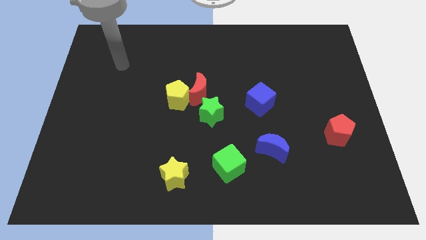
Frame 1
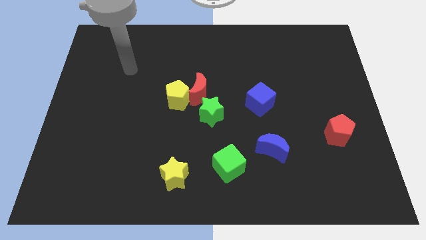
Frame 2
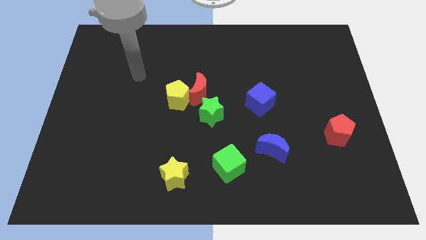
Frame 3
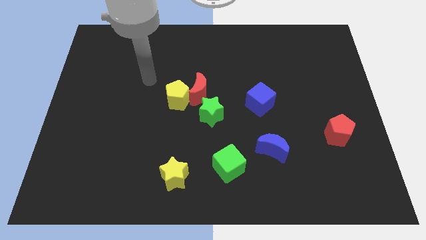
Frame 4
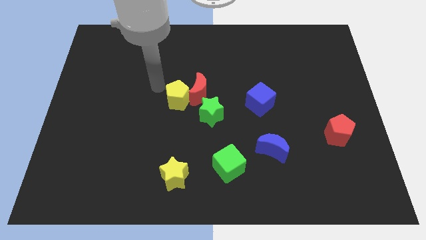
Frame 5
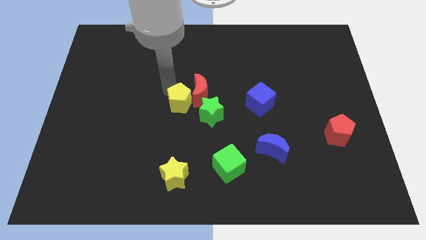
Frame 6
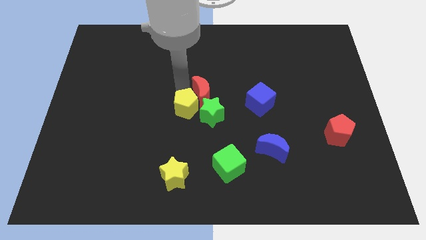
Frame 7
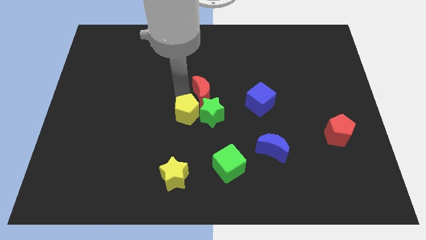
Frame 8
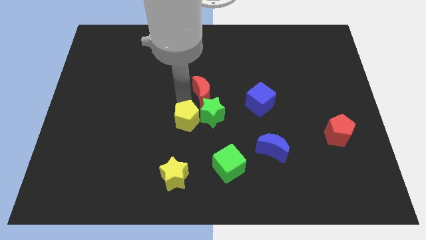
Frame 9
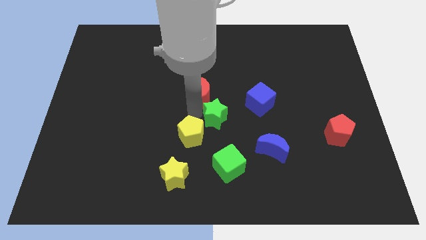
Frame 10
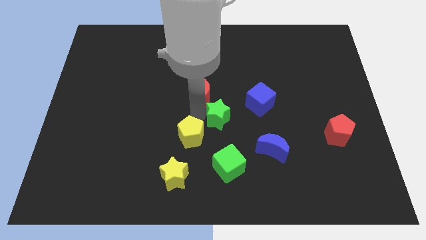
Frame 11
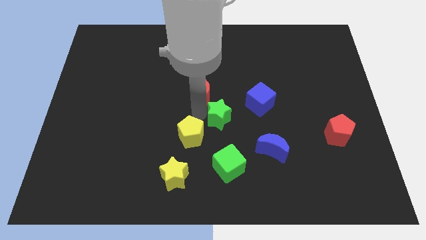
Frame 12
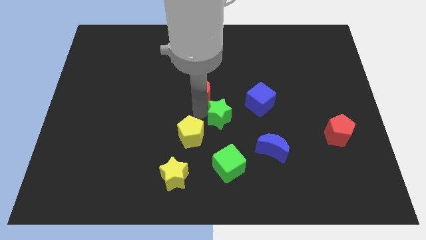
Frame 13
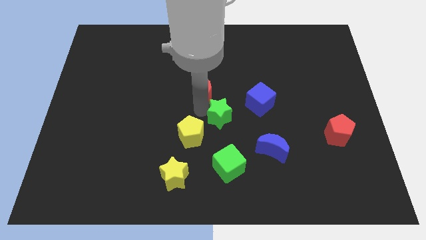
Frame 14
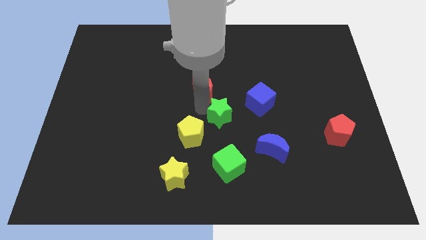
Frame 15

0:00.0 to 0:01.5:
separate the red moon from the yellow pentagon and green star

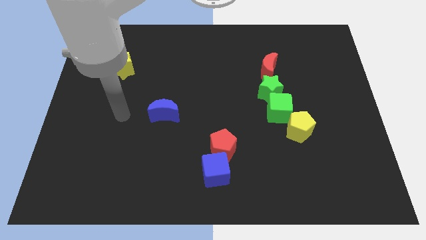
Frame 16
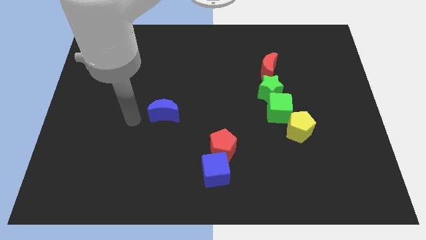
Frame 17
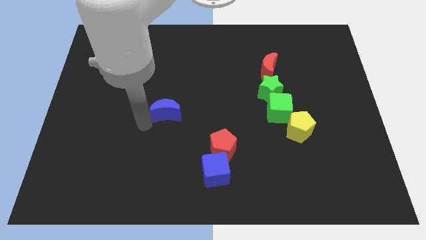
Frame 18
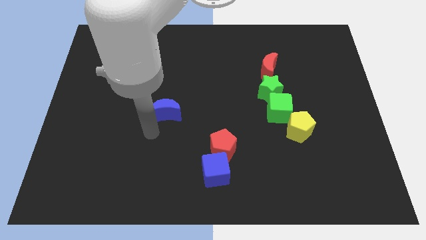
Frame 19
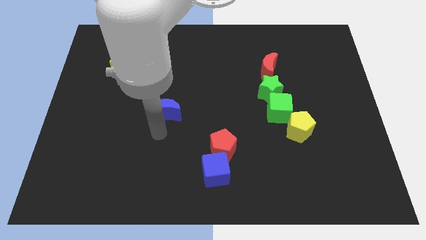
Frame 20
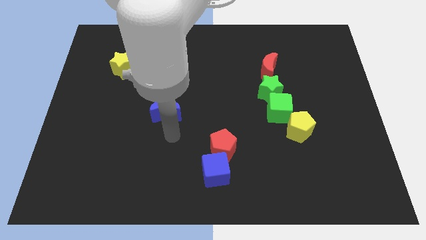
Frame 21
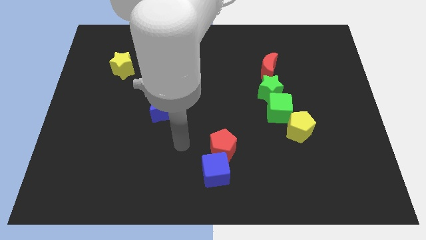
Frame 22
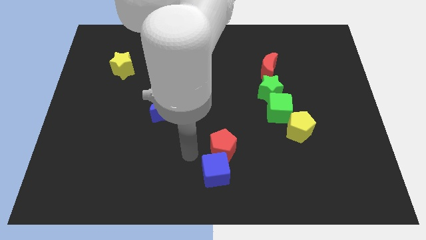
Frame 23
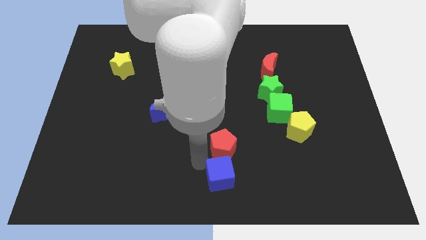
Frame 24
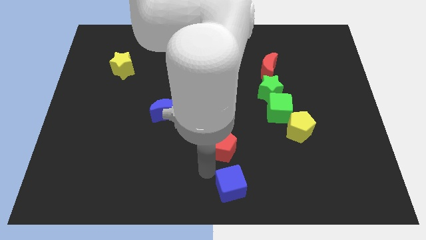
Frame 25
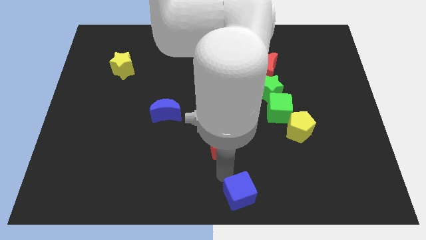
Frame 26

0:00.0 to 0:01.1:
move the red pentagon away from the blue cube

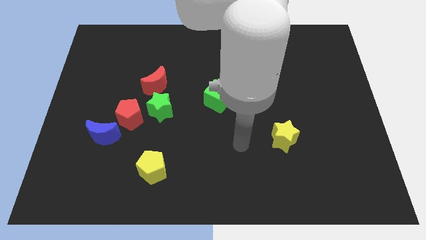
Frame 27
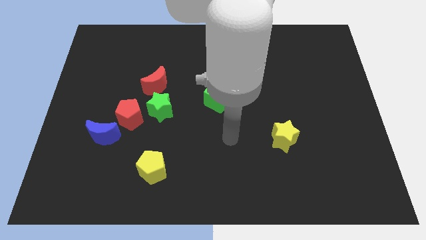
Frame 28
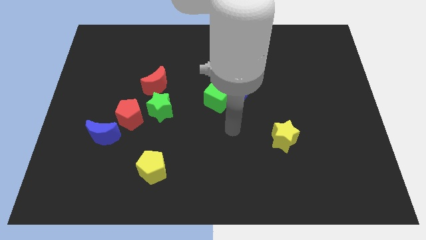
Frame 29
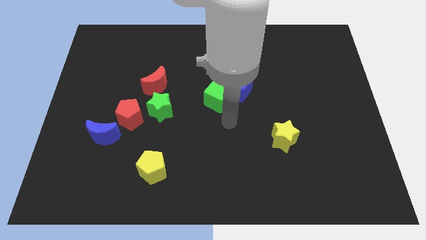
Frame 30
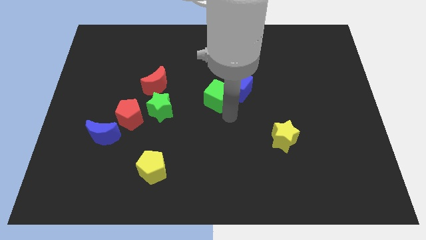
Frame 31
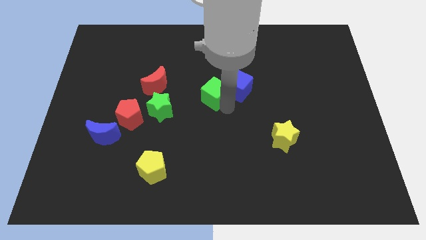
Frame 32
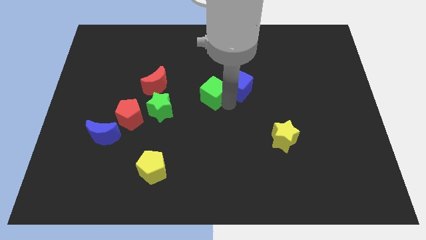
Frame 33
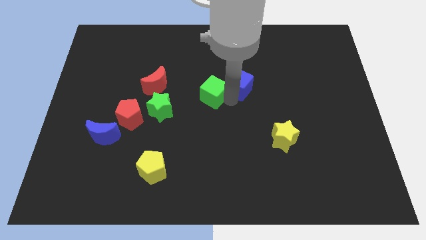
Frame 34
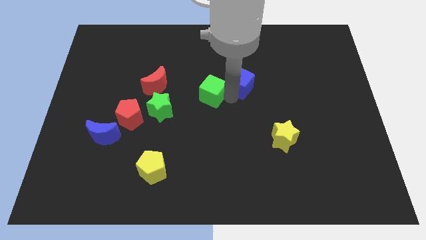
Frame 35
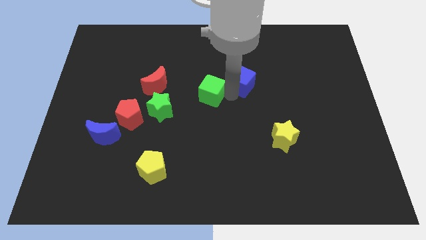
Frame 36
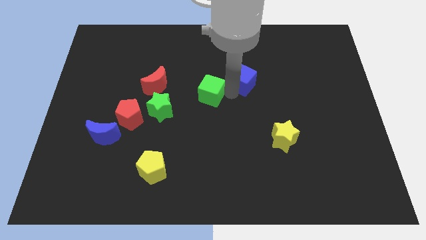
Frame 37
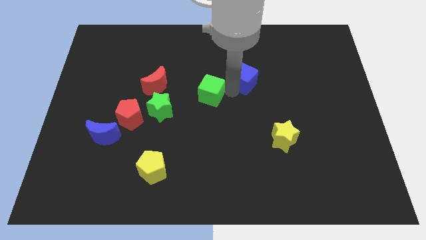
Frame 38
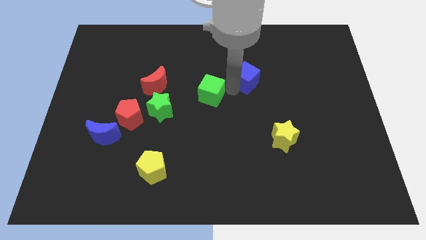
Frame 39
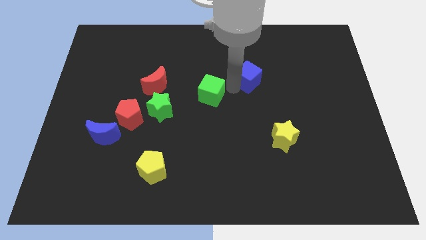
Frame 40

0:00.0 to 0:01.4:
pull the blue cube apart from the green cube

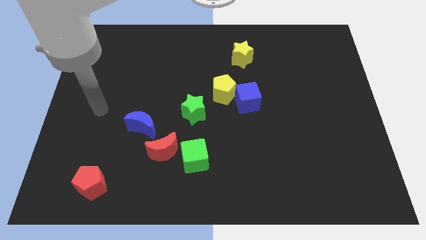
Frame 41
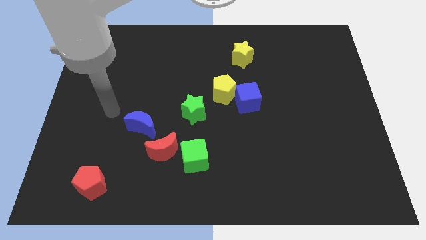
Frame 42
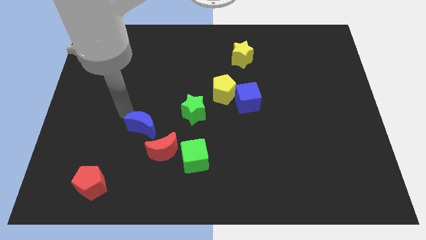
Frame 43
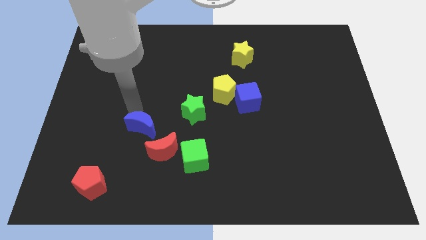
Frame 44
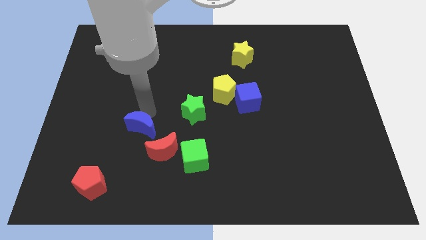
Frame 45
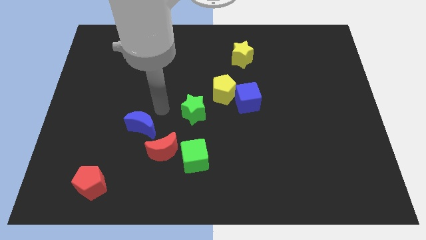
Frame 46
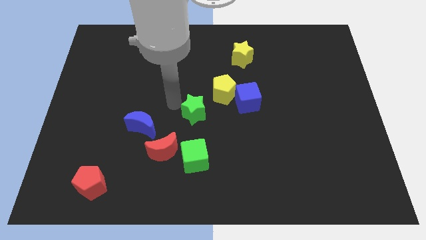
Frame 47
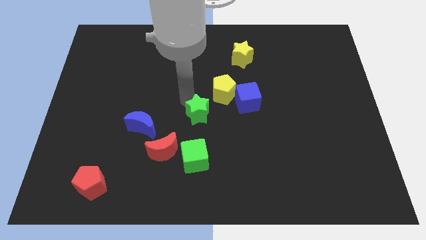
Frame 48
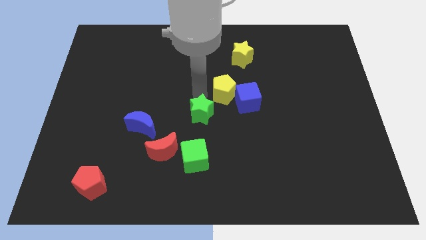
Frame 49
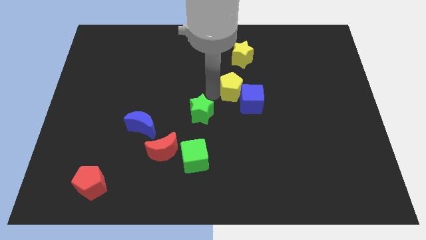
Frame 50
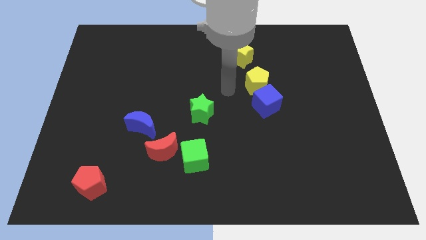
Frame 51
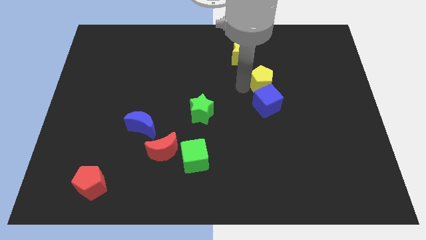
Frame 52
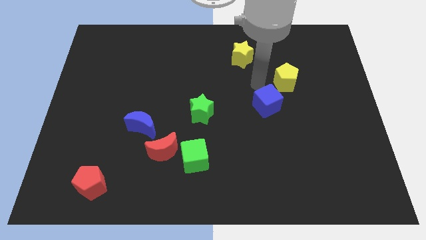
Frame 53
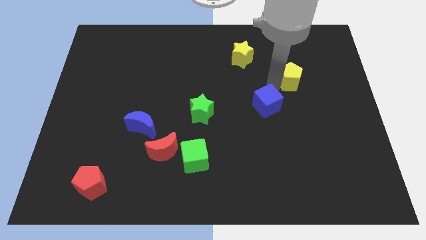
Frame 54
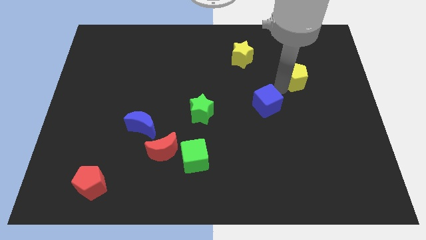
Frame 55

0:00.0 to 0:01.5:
separate the blue cube from the yellow pentagon

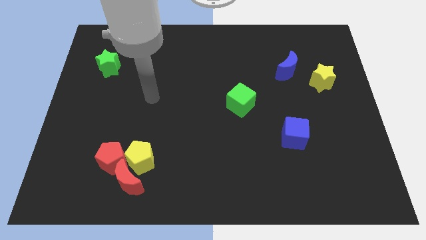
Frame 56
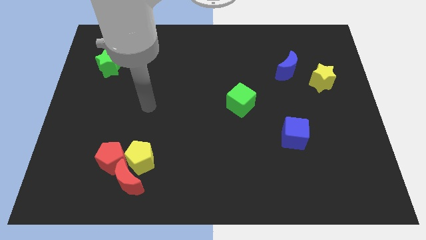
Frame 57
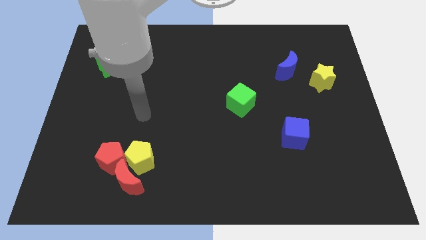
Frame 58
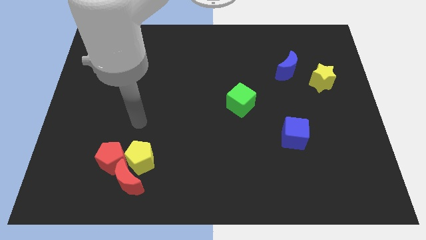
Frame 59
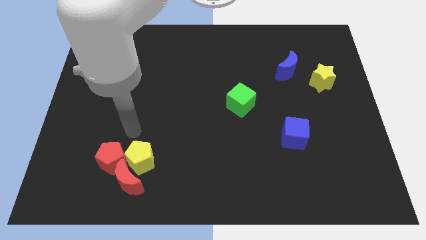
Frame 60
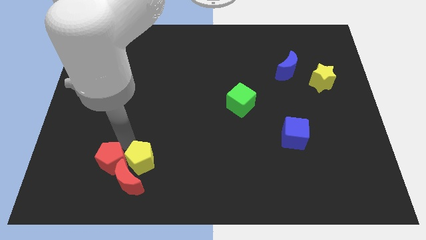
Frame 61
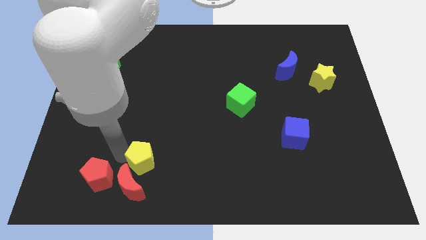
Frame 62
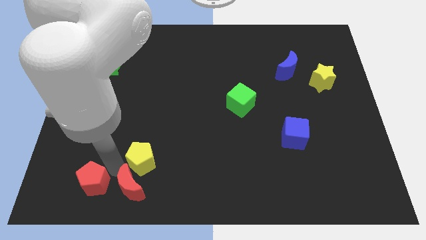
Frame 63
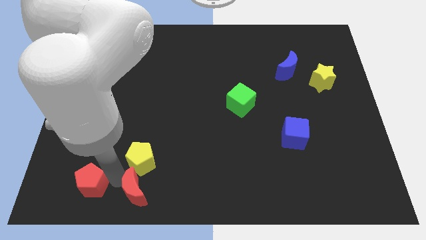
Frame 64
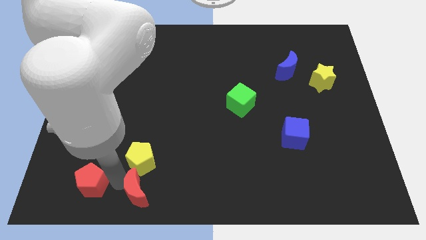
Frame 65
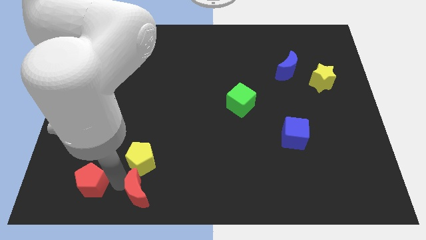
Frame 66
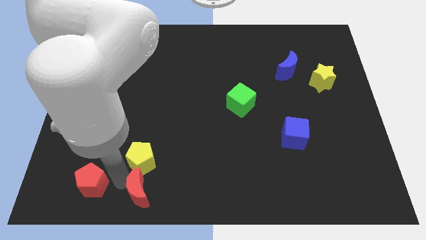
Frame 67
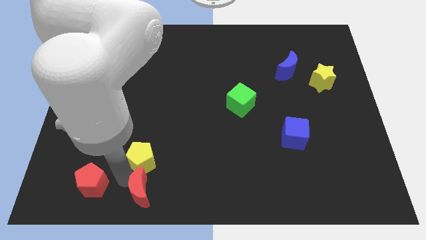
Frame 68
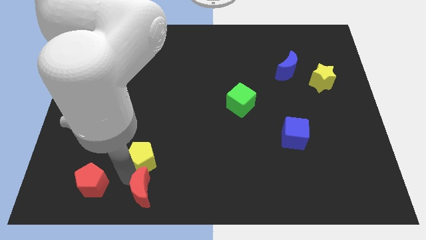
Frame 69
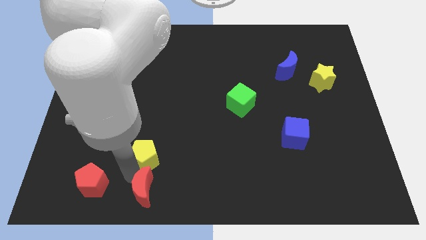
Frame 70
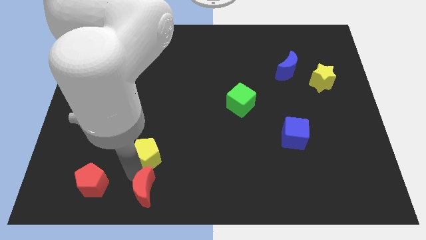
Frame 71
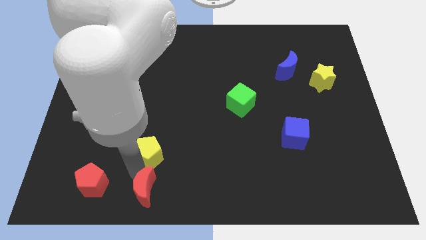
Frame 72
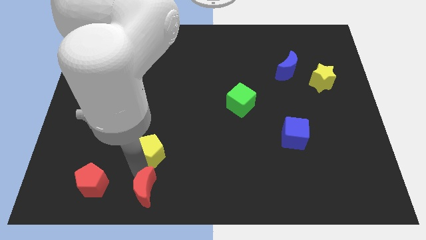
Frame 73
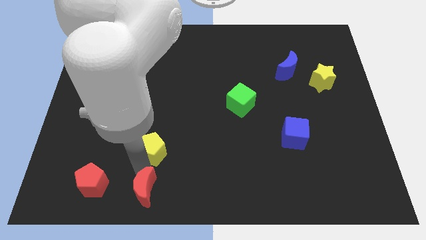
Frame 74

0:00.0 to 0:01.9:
pull the yellow pentagon apart from the red moon and red pentagon

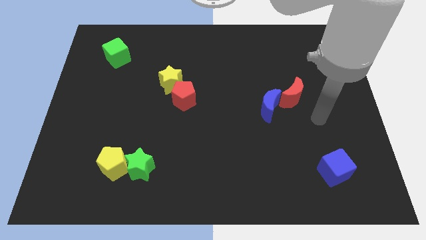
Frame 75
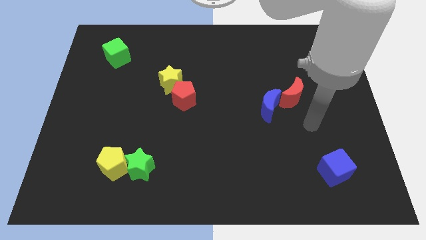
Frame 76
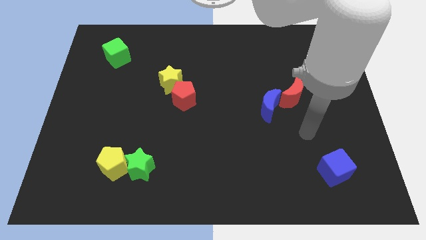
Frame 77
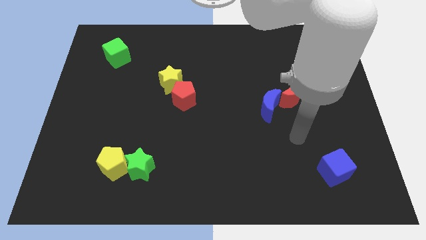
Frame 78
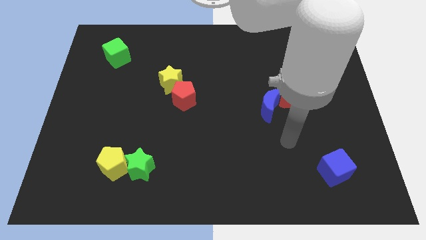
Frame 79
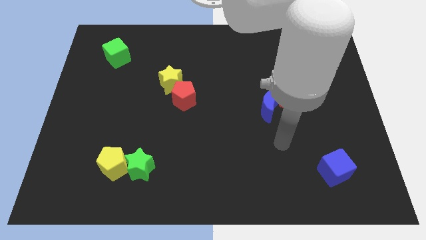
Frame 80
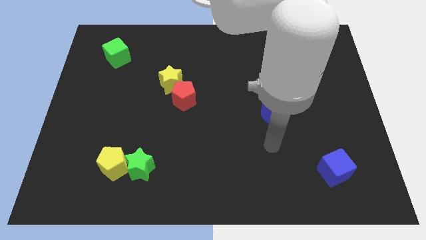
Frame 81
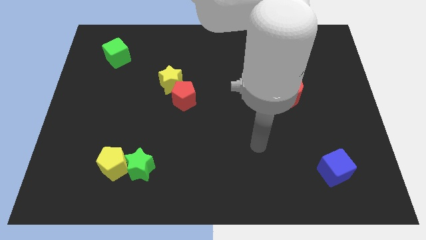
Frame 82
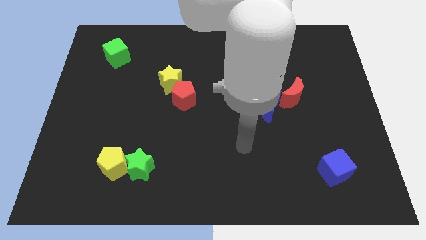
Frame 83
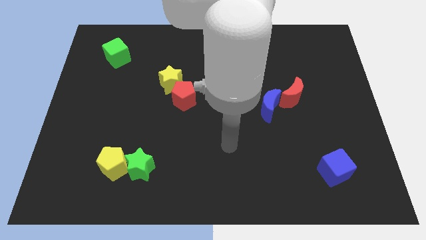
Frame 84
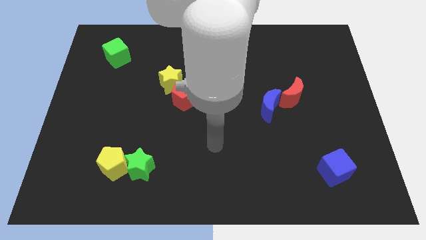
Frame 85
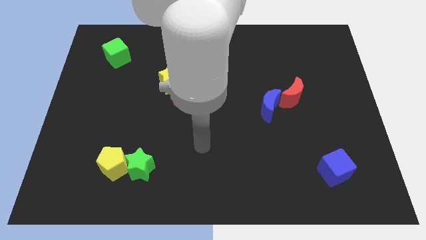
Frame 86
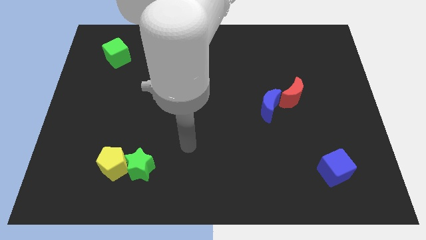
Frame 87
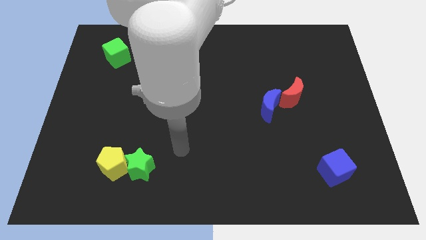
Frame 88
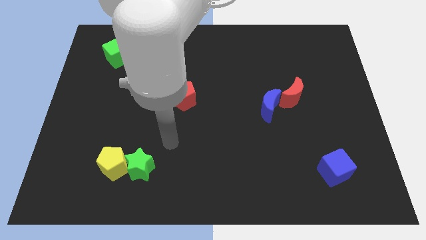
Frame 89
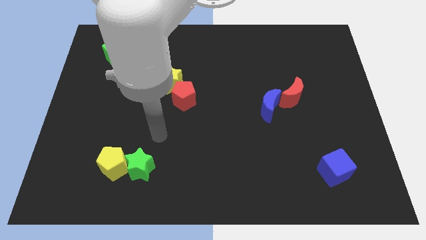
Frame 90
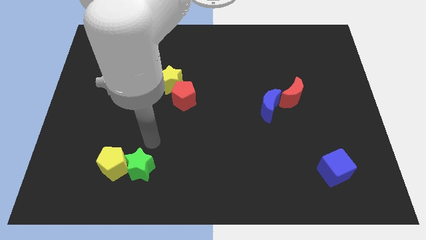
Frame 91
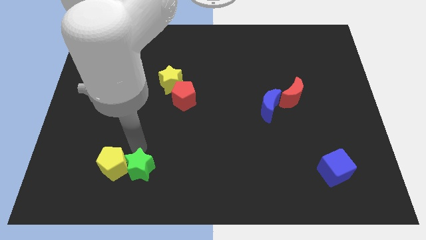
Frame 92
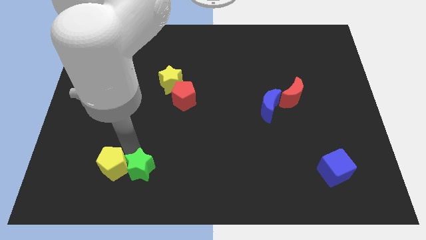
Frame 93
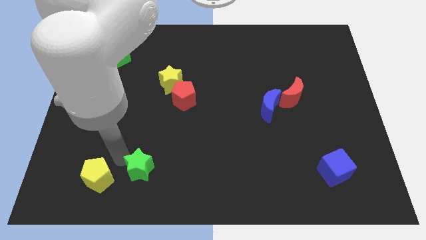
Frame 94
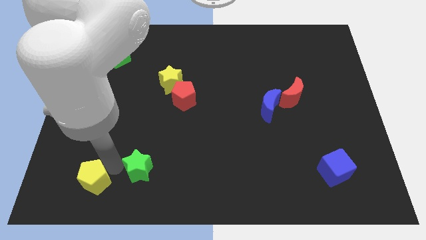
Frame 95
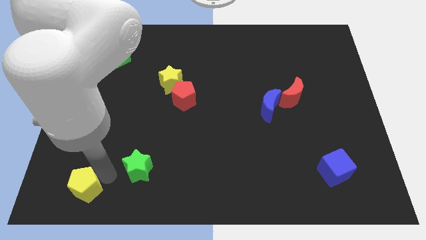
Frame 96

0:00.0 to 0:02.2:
pull the green star apart from the yellow pentagon
